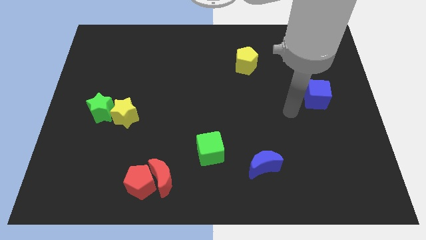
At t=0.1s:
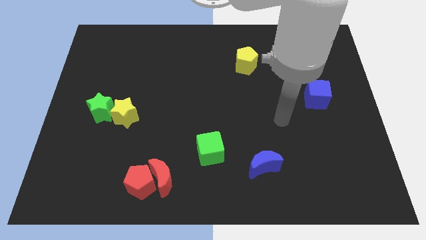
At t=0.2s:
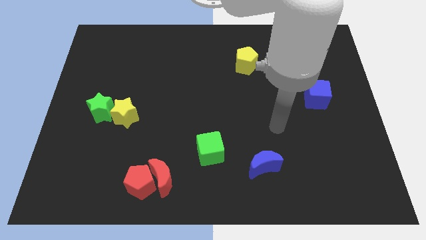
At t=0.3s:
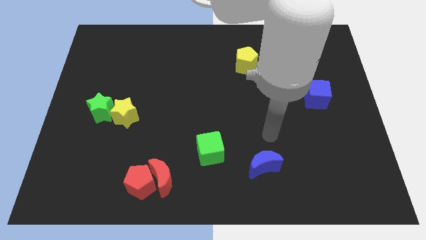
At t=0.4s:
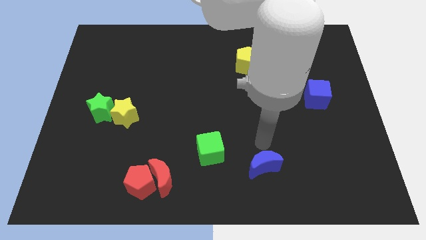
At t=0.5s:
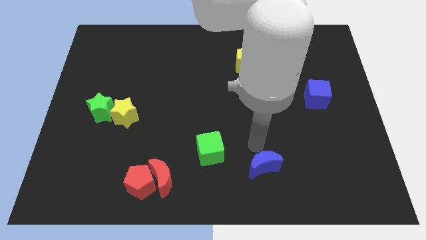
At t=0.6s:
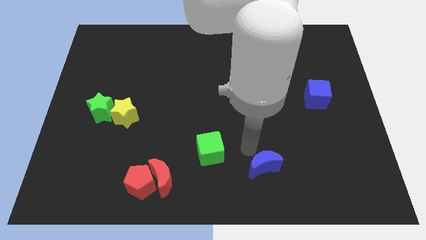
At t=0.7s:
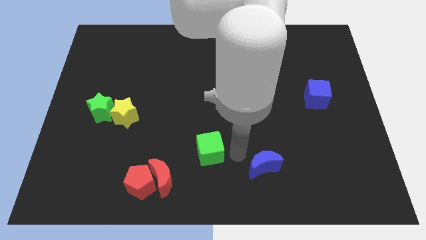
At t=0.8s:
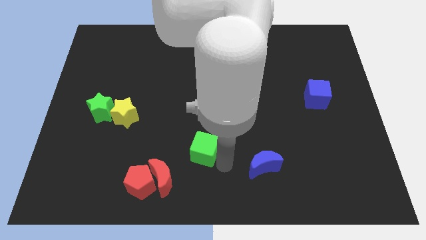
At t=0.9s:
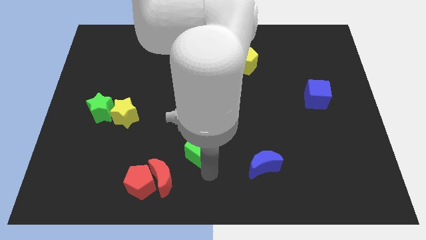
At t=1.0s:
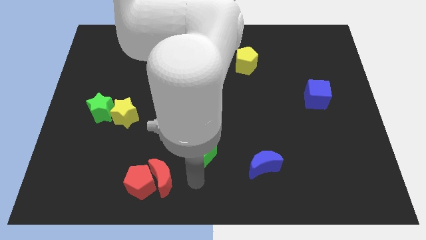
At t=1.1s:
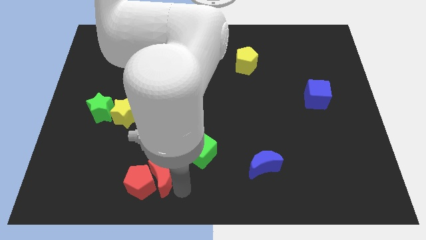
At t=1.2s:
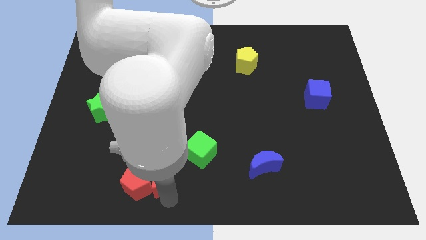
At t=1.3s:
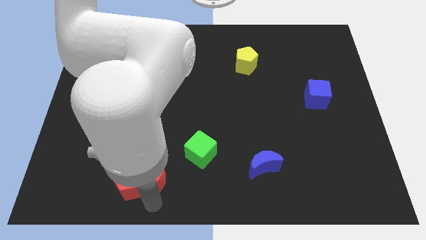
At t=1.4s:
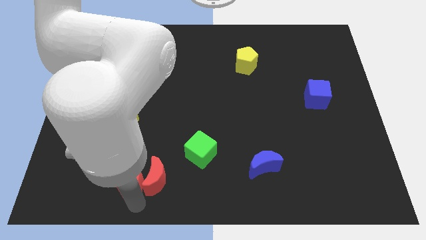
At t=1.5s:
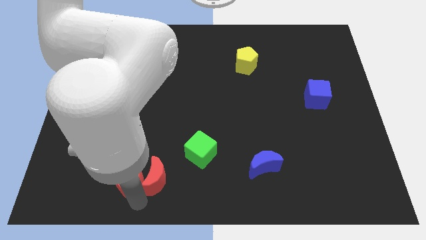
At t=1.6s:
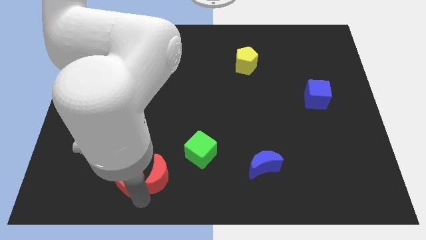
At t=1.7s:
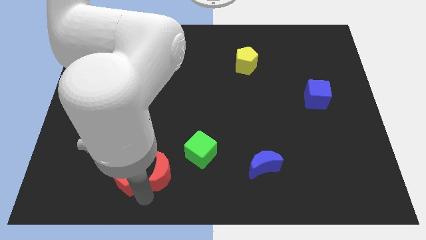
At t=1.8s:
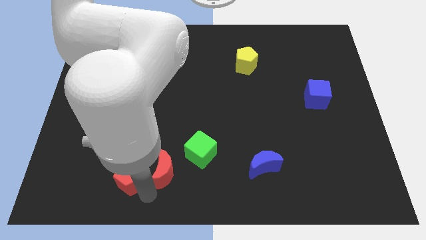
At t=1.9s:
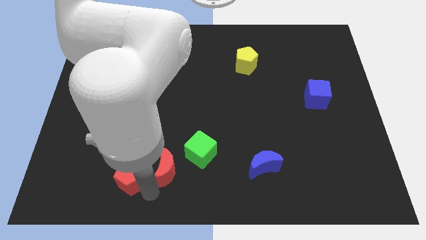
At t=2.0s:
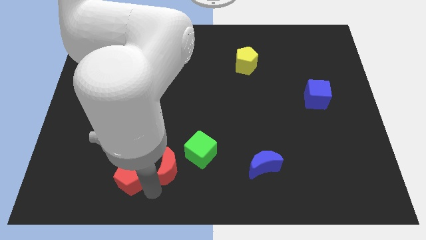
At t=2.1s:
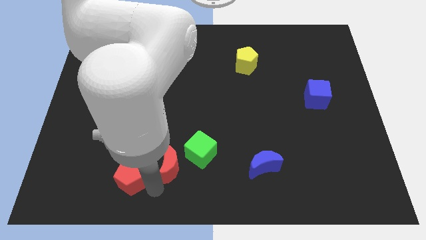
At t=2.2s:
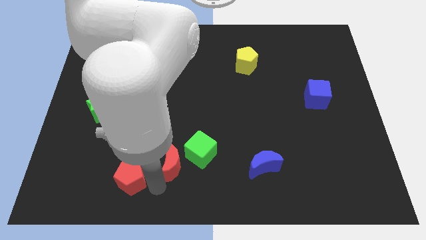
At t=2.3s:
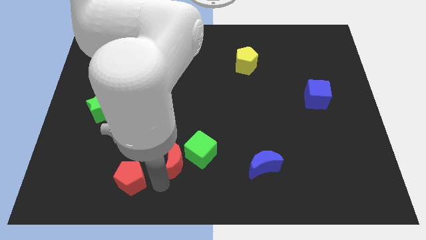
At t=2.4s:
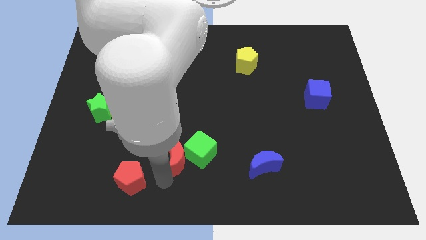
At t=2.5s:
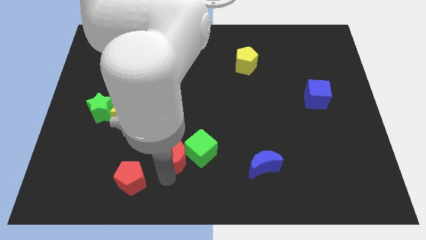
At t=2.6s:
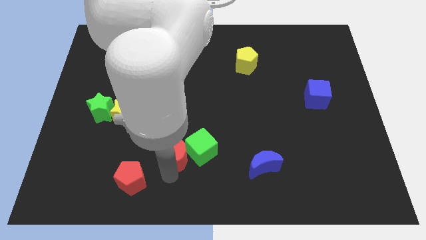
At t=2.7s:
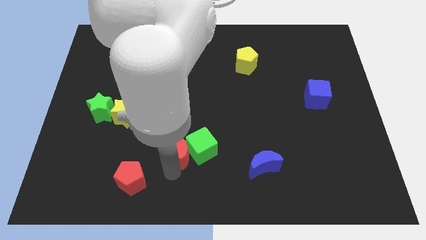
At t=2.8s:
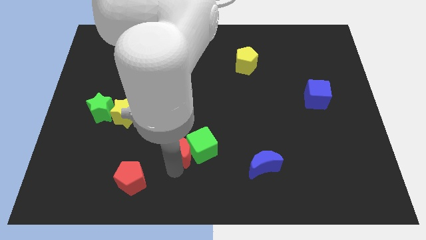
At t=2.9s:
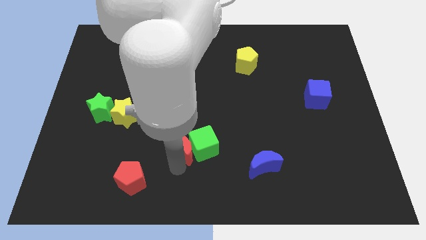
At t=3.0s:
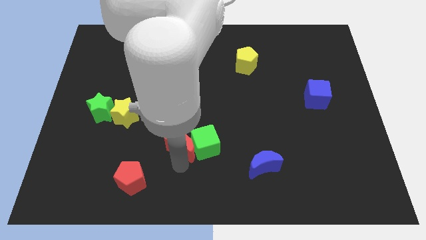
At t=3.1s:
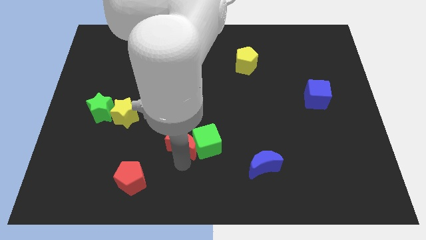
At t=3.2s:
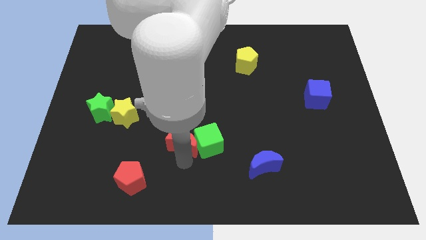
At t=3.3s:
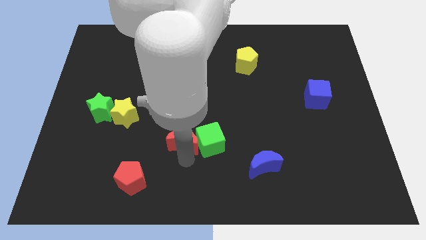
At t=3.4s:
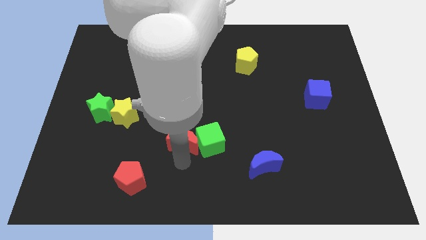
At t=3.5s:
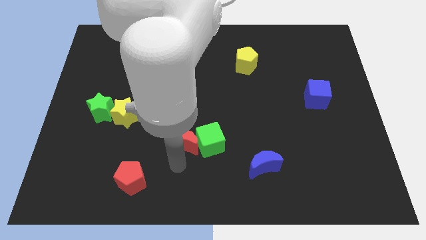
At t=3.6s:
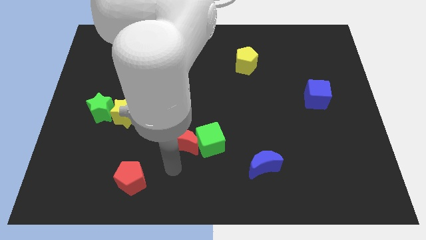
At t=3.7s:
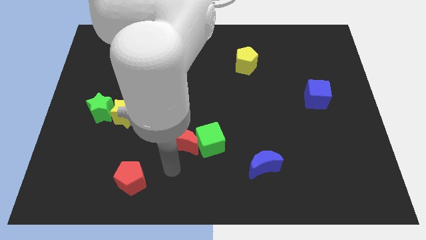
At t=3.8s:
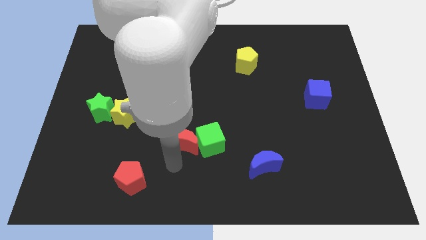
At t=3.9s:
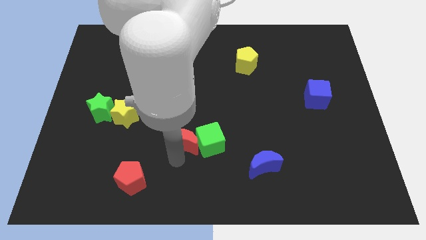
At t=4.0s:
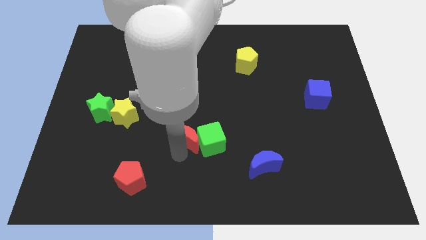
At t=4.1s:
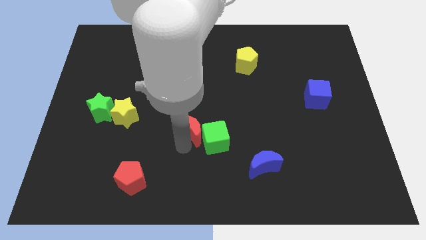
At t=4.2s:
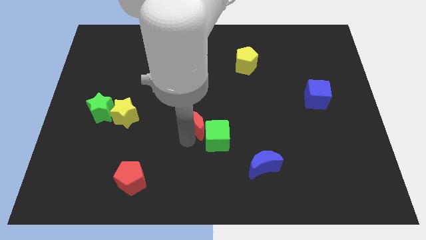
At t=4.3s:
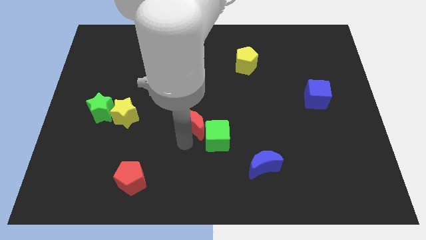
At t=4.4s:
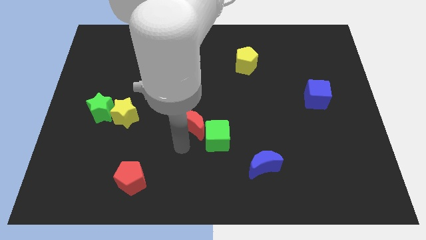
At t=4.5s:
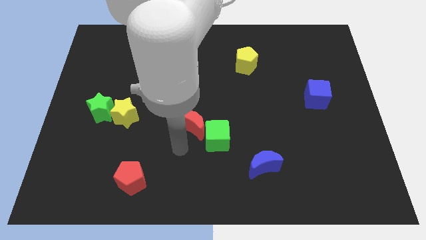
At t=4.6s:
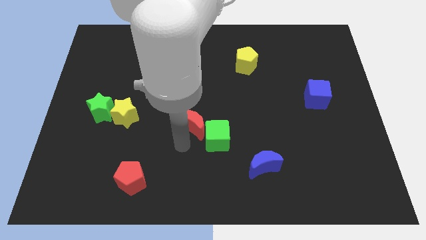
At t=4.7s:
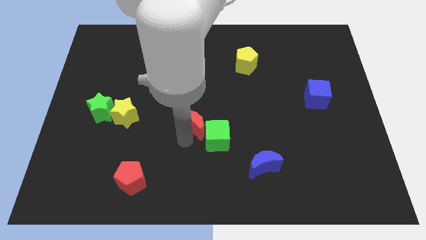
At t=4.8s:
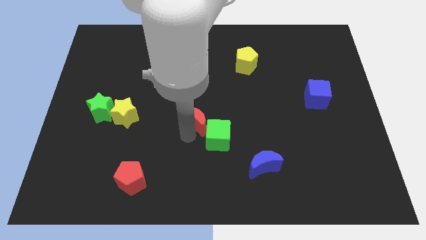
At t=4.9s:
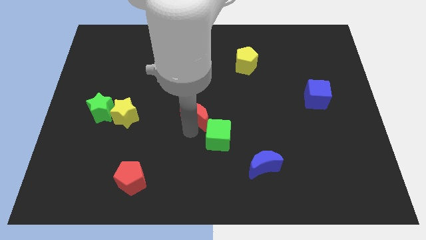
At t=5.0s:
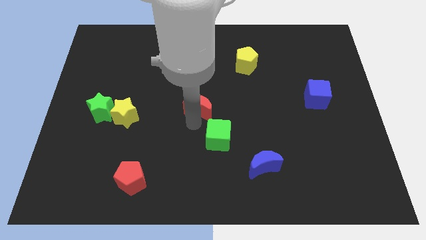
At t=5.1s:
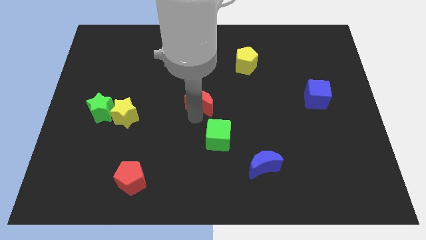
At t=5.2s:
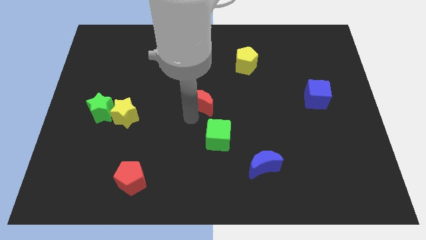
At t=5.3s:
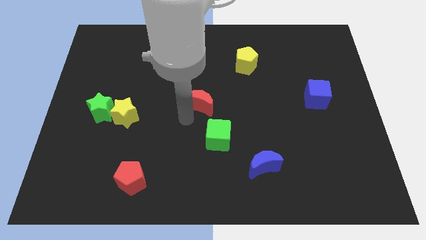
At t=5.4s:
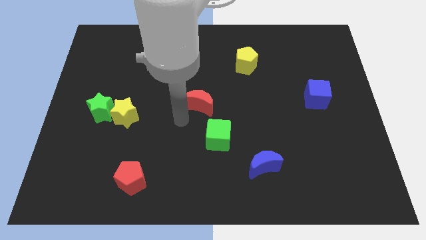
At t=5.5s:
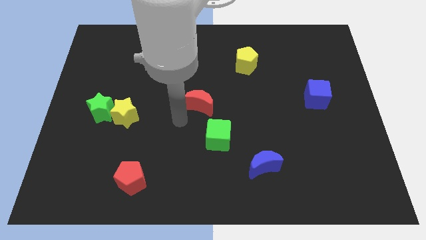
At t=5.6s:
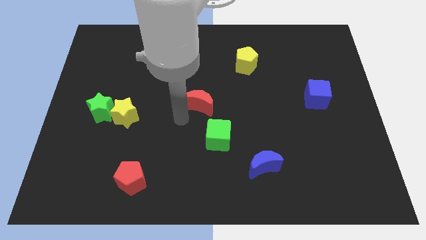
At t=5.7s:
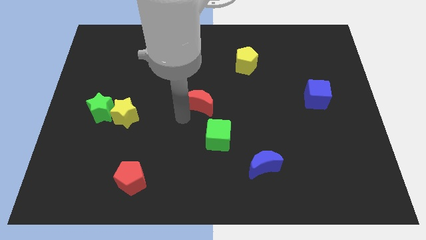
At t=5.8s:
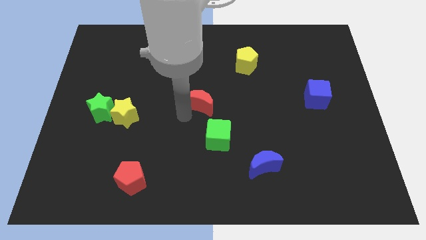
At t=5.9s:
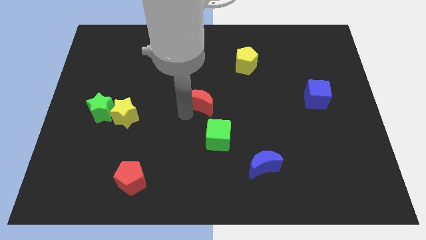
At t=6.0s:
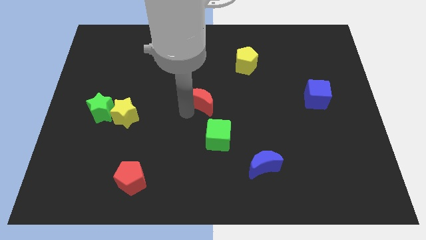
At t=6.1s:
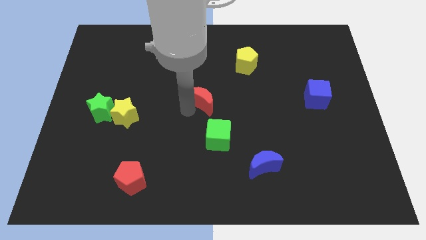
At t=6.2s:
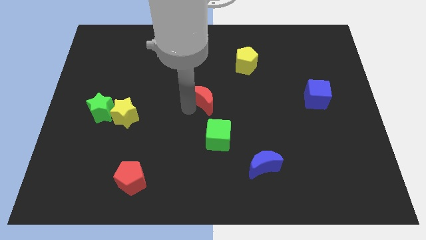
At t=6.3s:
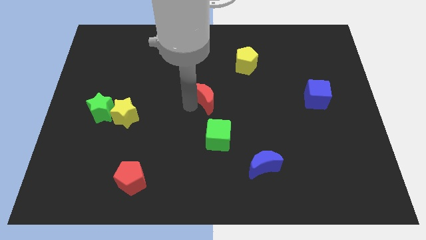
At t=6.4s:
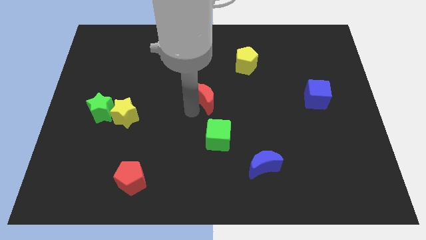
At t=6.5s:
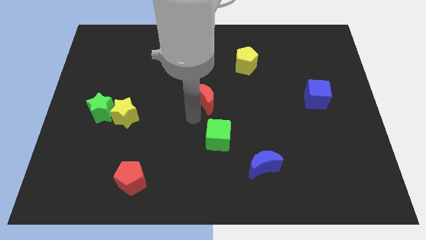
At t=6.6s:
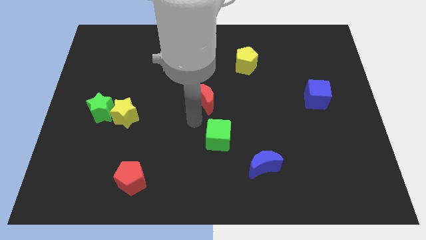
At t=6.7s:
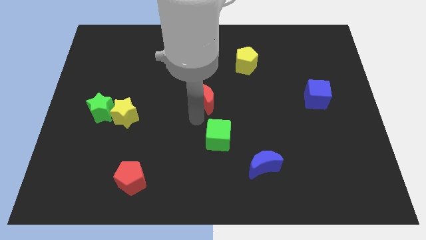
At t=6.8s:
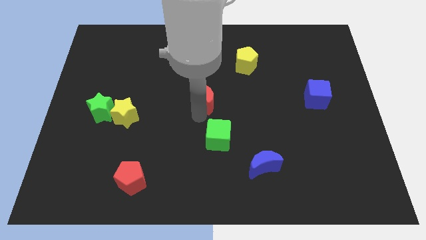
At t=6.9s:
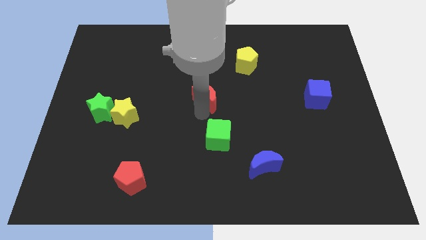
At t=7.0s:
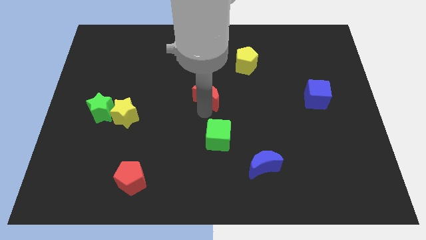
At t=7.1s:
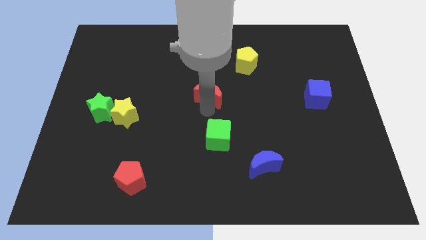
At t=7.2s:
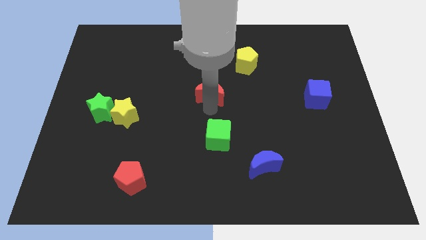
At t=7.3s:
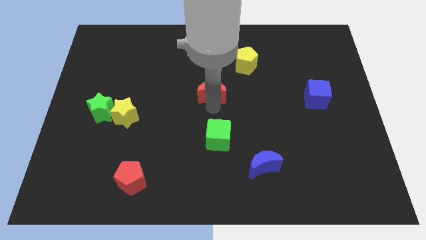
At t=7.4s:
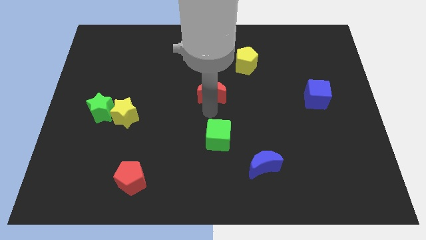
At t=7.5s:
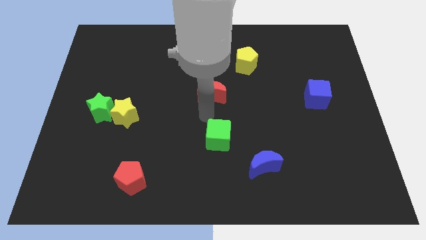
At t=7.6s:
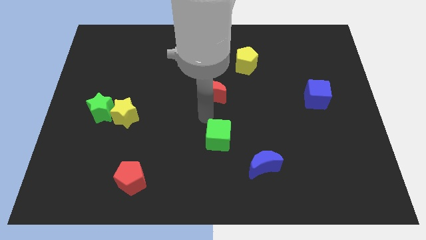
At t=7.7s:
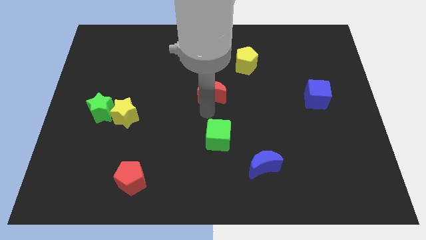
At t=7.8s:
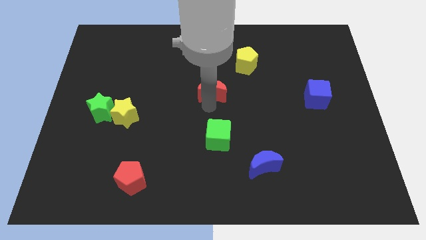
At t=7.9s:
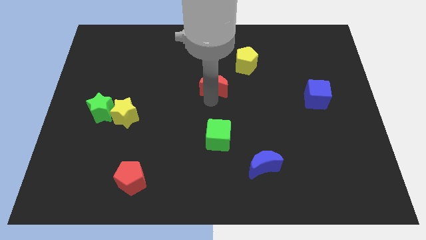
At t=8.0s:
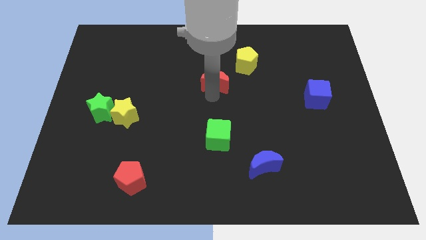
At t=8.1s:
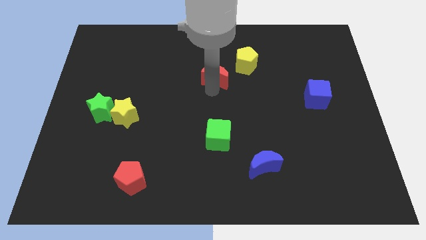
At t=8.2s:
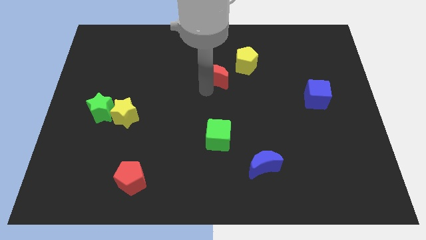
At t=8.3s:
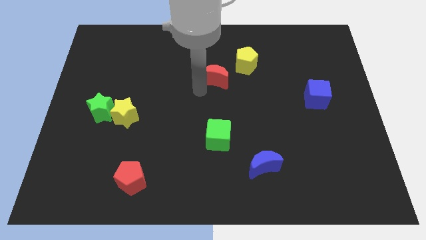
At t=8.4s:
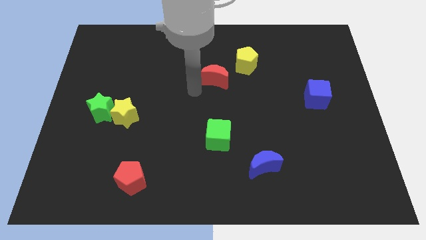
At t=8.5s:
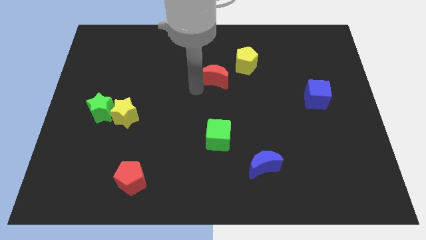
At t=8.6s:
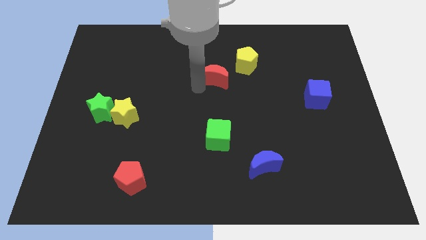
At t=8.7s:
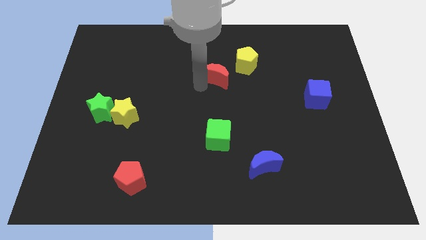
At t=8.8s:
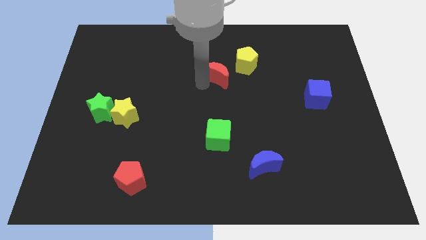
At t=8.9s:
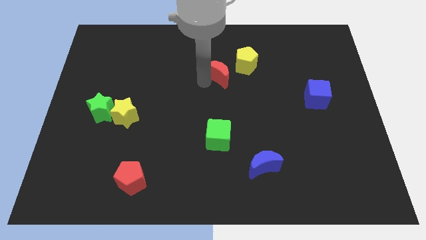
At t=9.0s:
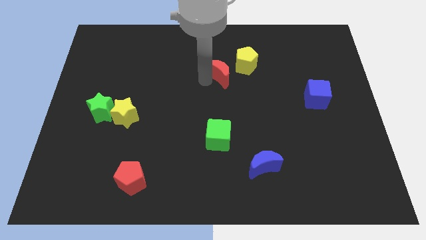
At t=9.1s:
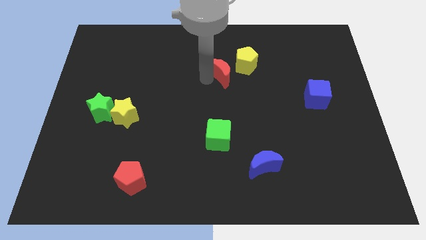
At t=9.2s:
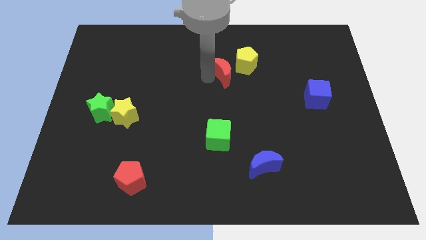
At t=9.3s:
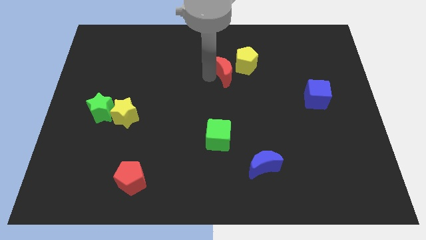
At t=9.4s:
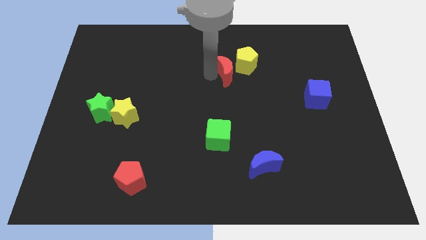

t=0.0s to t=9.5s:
push the red moon towards the yellow pentagon
